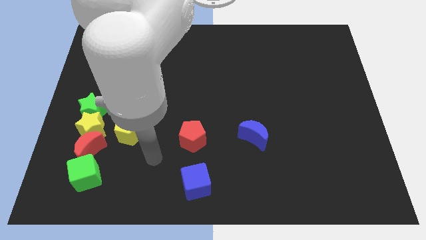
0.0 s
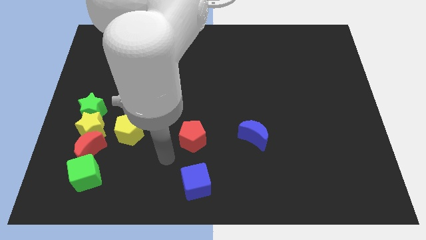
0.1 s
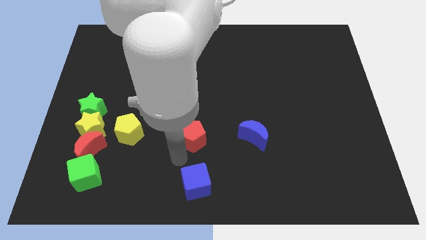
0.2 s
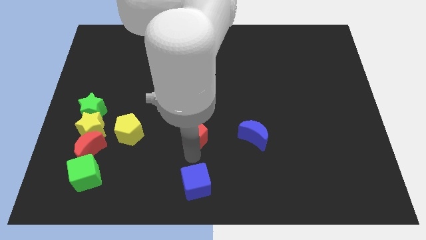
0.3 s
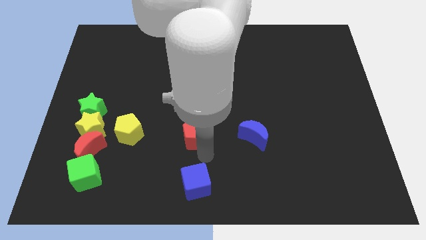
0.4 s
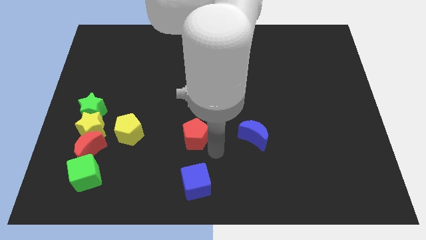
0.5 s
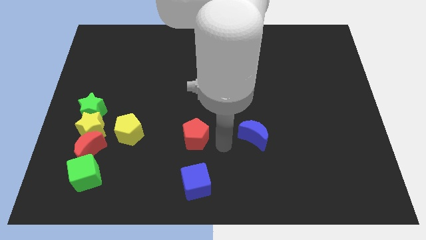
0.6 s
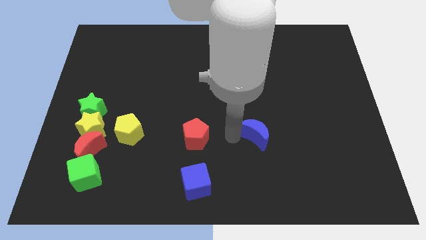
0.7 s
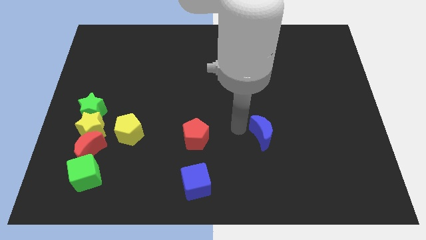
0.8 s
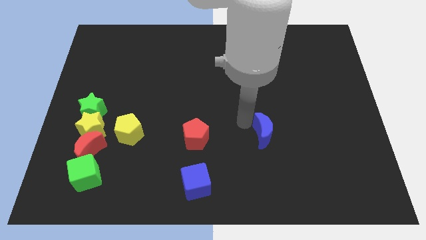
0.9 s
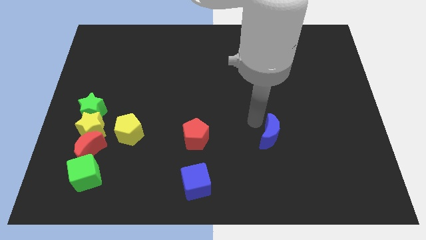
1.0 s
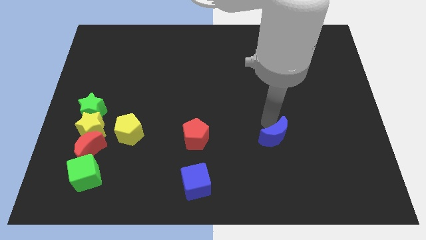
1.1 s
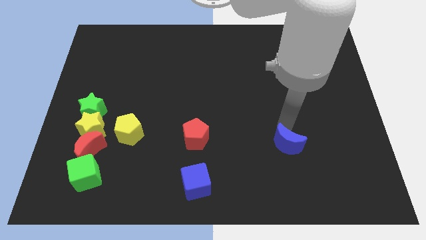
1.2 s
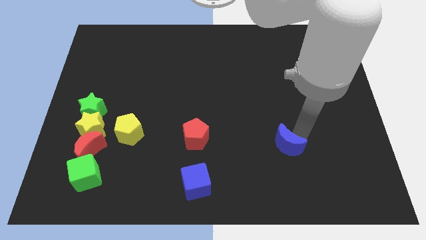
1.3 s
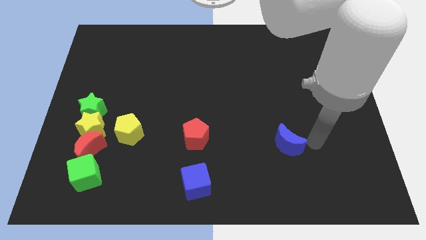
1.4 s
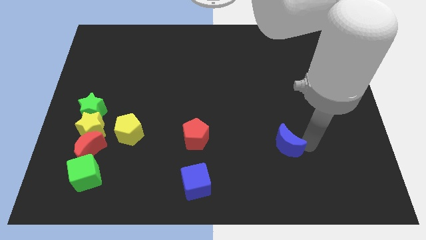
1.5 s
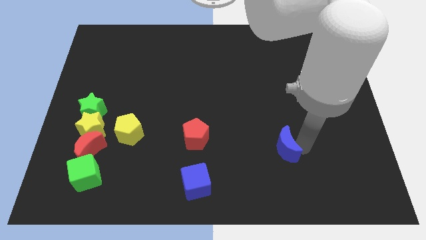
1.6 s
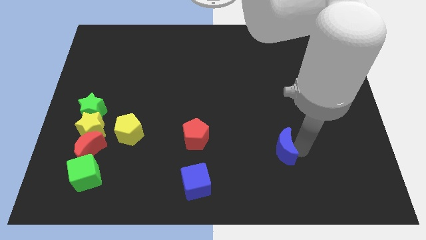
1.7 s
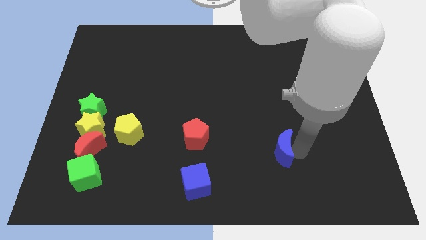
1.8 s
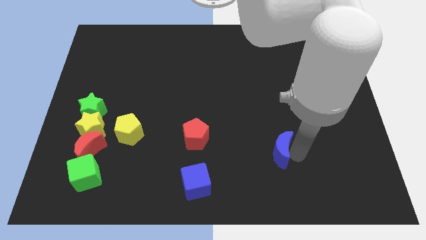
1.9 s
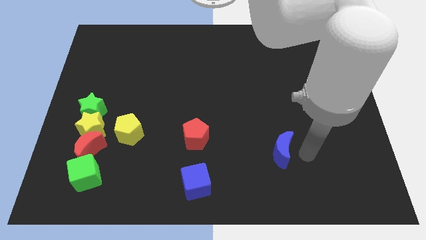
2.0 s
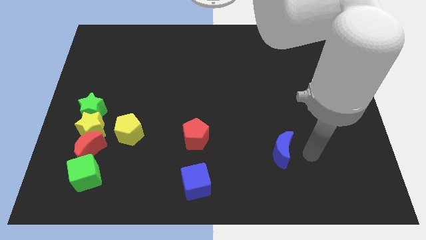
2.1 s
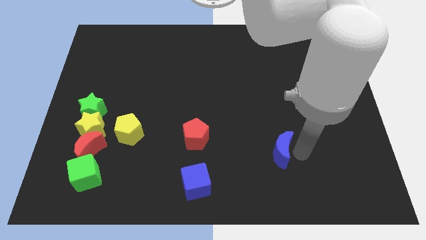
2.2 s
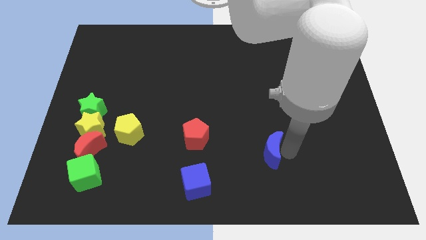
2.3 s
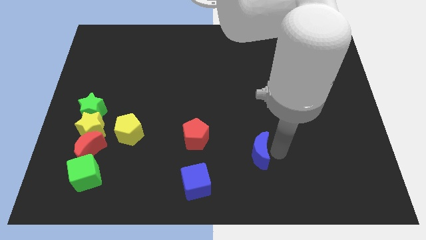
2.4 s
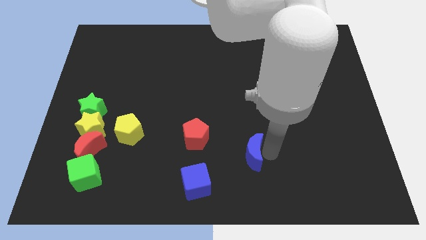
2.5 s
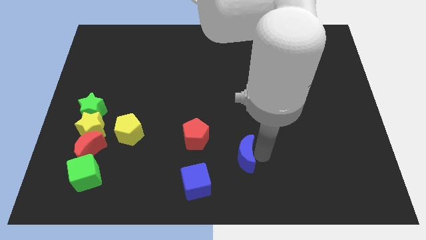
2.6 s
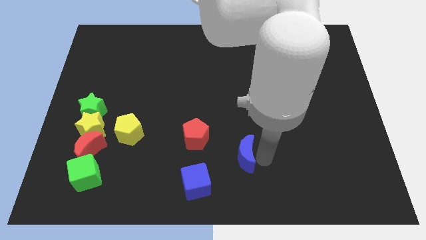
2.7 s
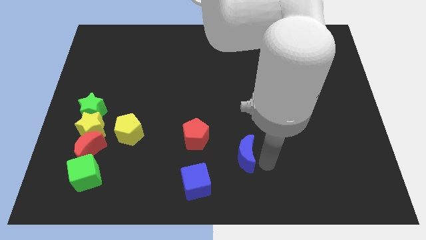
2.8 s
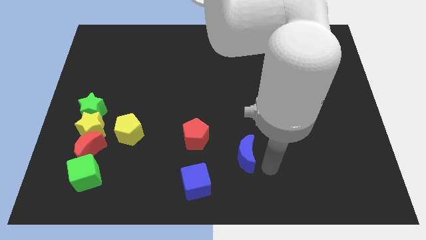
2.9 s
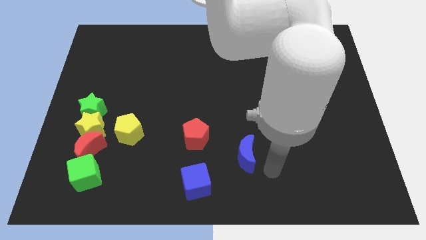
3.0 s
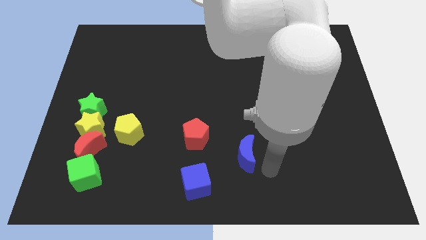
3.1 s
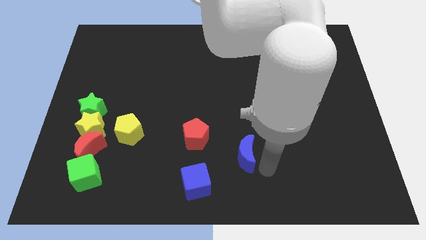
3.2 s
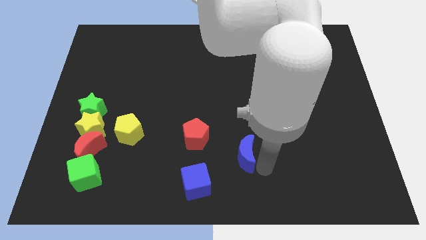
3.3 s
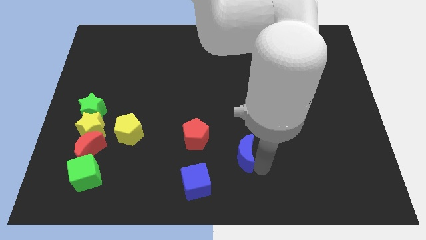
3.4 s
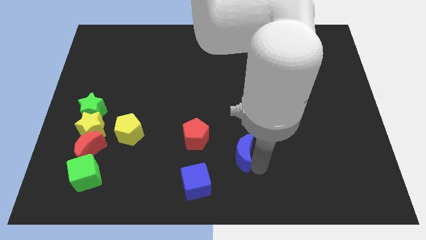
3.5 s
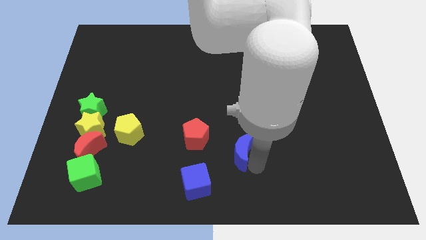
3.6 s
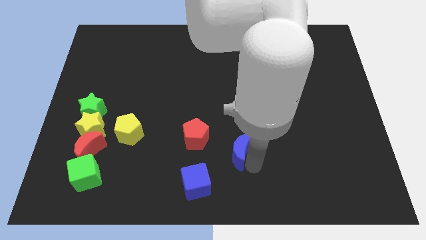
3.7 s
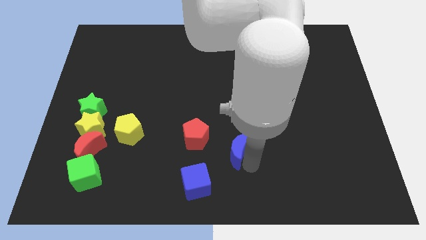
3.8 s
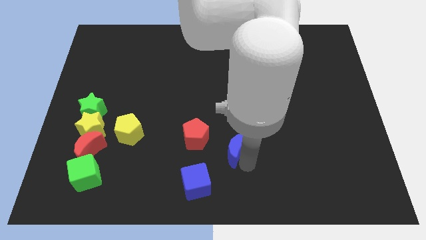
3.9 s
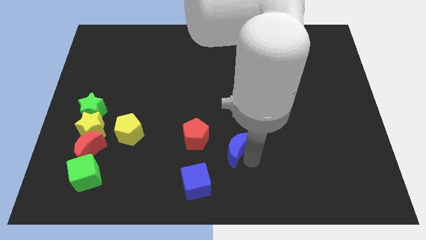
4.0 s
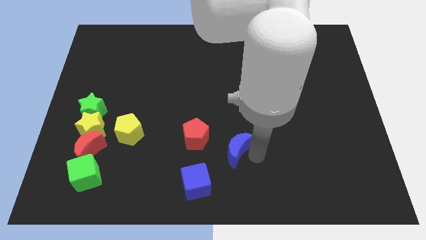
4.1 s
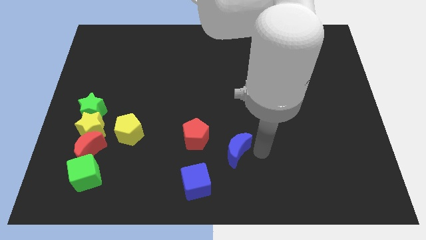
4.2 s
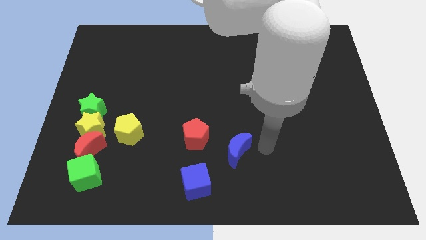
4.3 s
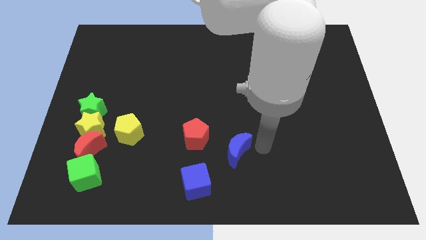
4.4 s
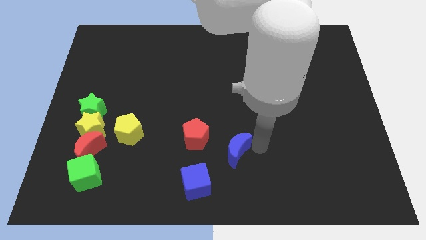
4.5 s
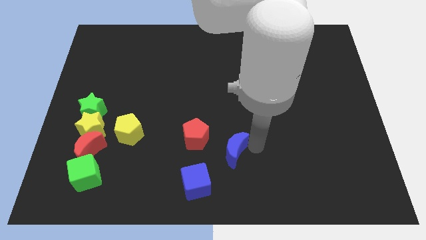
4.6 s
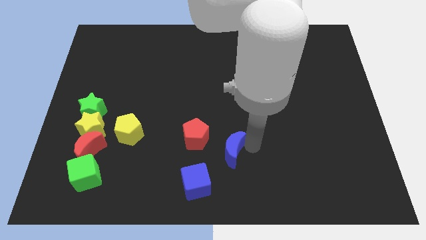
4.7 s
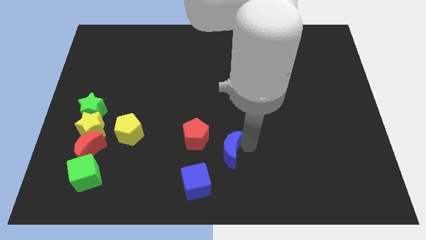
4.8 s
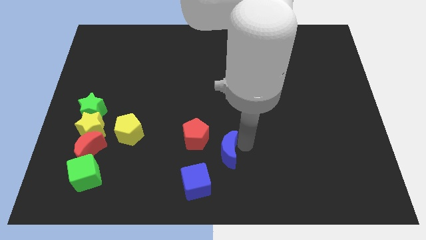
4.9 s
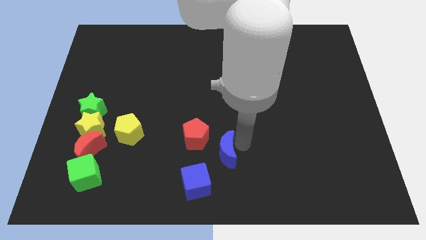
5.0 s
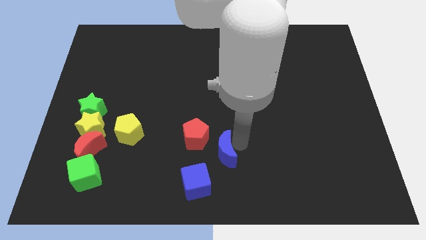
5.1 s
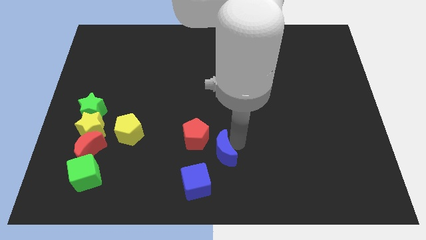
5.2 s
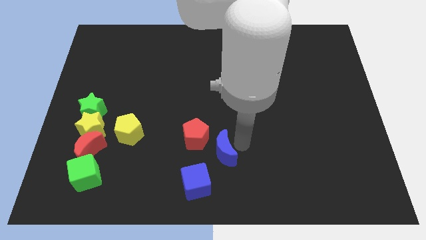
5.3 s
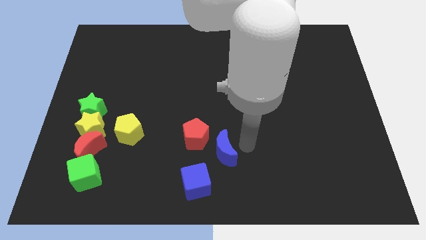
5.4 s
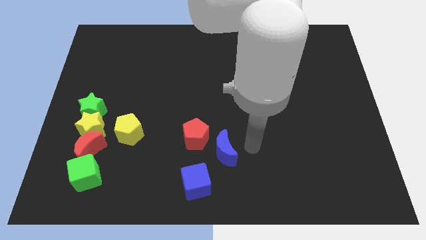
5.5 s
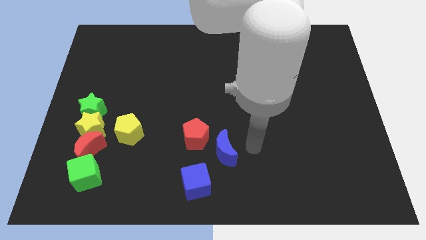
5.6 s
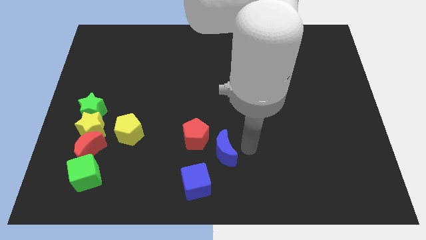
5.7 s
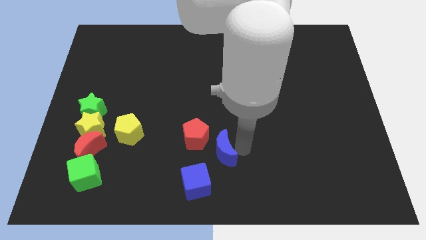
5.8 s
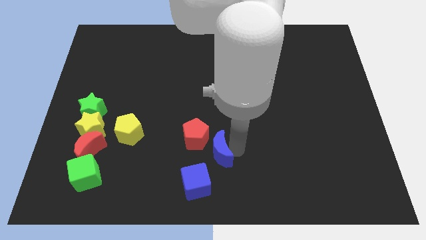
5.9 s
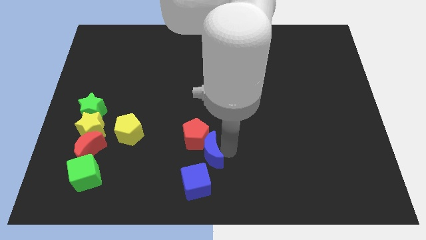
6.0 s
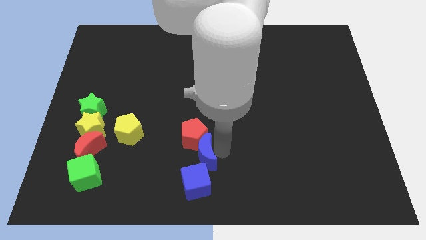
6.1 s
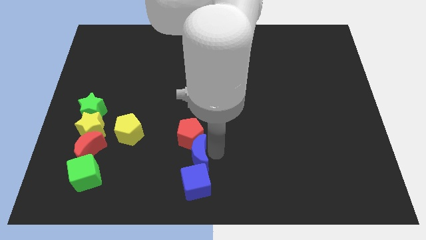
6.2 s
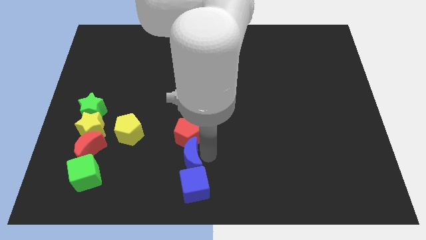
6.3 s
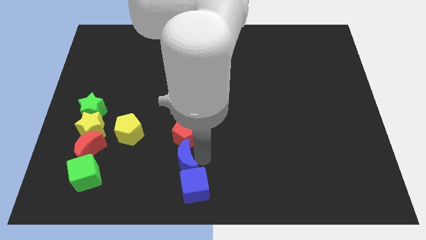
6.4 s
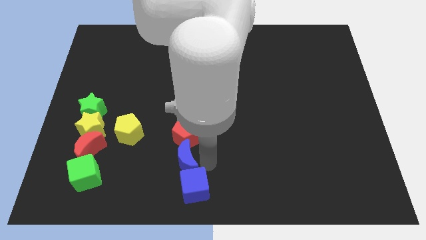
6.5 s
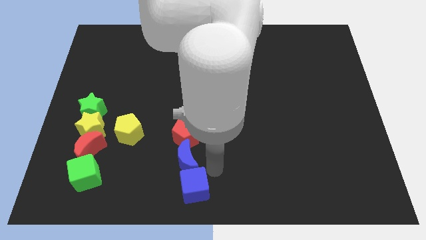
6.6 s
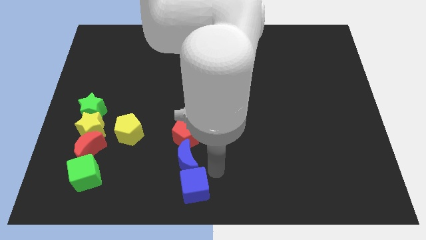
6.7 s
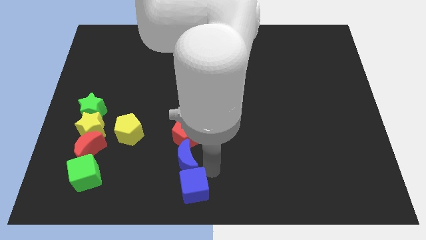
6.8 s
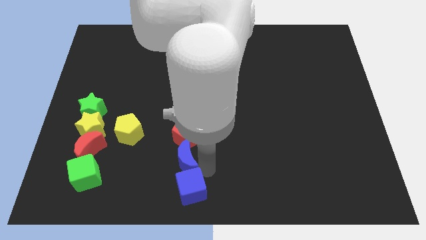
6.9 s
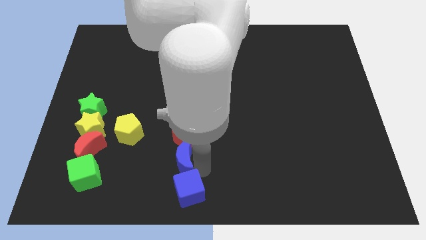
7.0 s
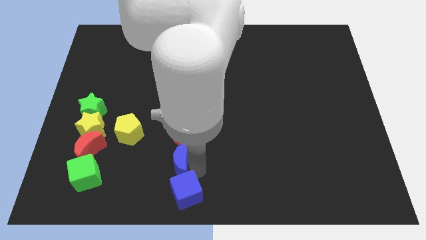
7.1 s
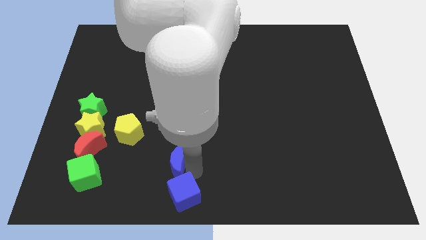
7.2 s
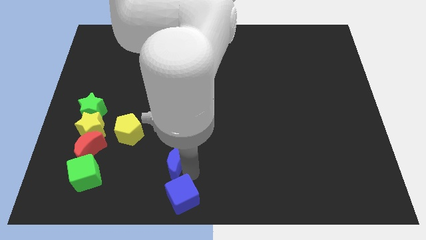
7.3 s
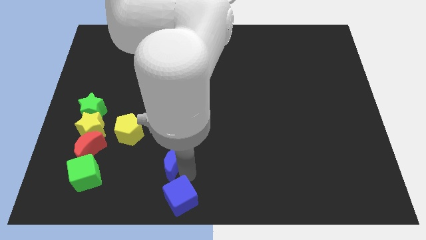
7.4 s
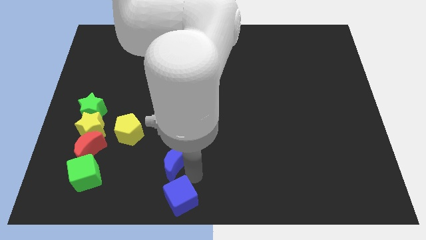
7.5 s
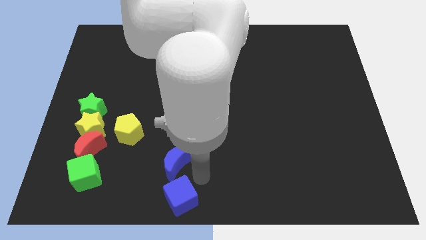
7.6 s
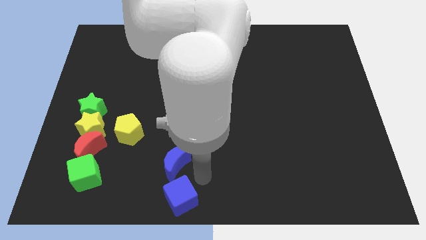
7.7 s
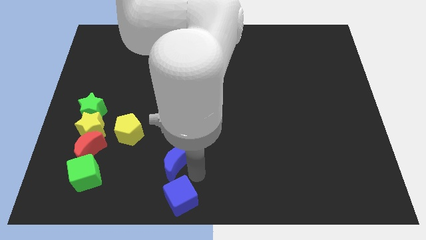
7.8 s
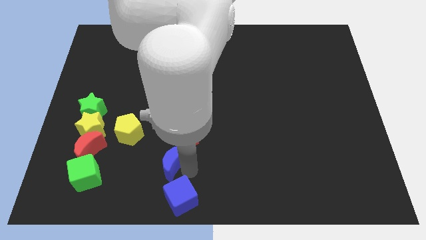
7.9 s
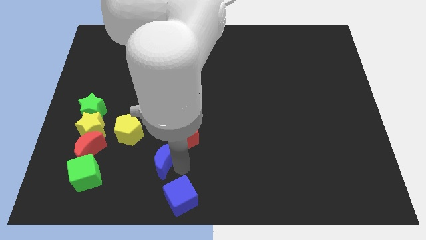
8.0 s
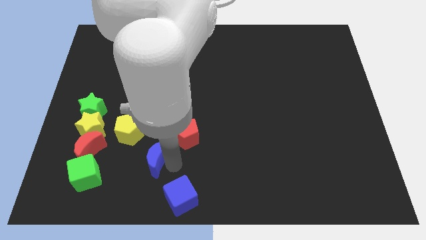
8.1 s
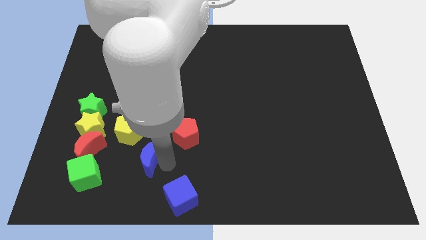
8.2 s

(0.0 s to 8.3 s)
push the blue moon to the left
